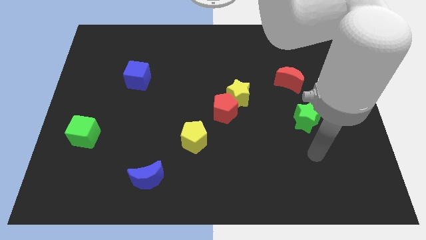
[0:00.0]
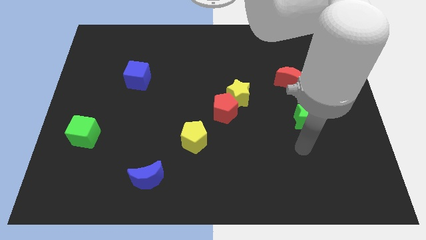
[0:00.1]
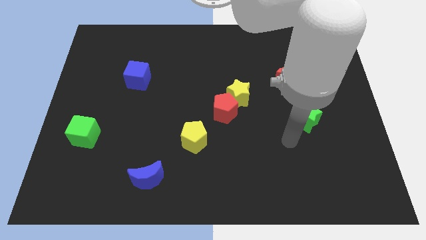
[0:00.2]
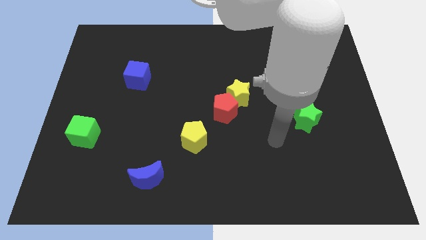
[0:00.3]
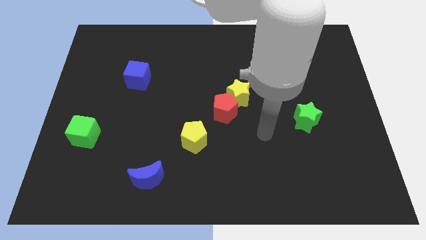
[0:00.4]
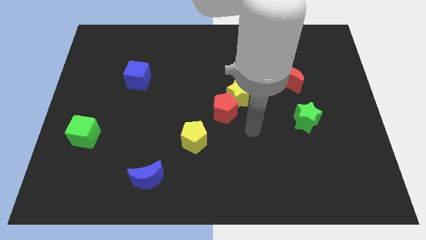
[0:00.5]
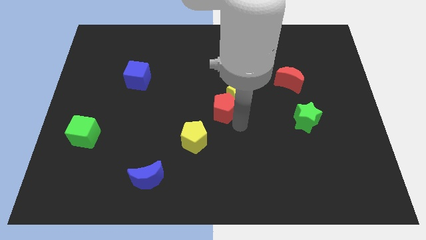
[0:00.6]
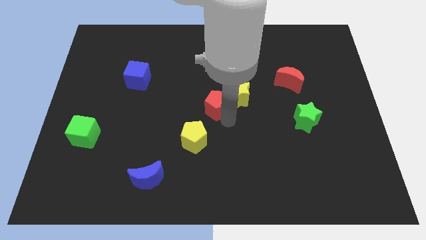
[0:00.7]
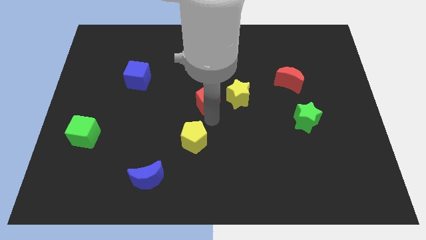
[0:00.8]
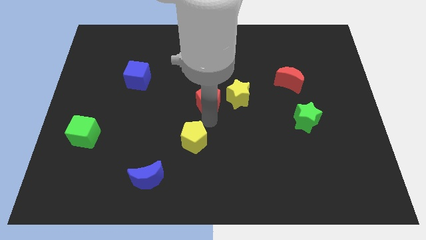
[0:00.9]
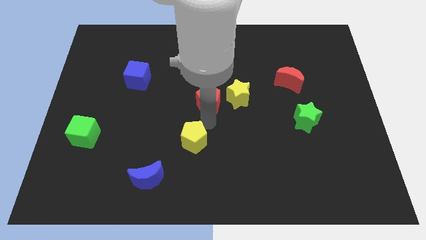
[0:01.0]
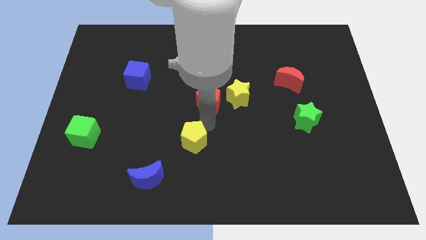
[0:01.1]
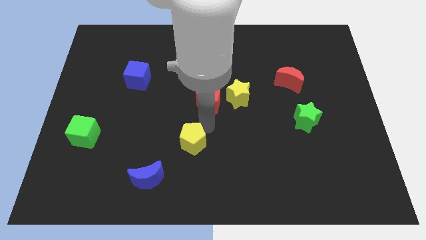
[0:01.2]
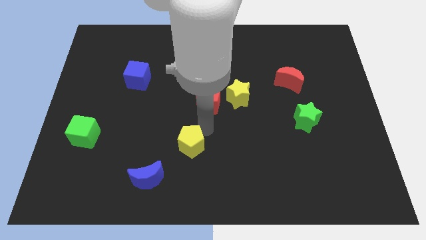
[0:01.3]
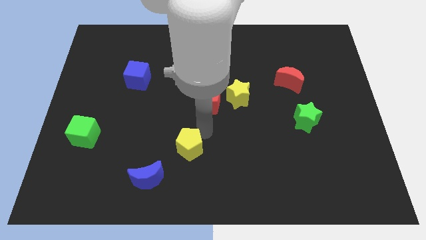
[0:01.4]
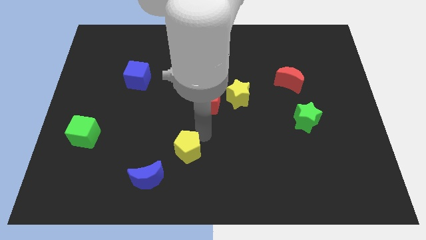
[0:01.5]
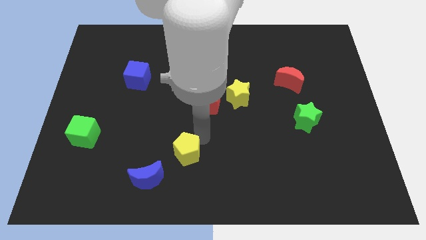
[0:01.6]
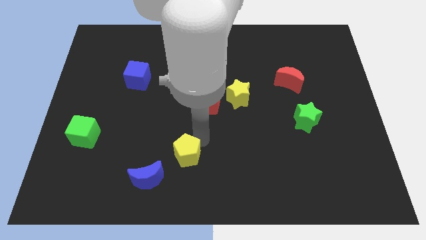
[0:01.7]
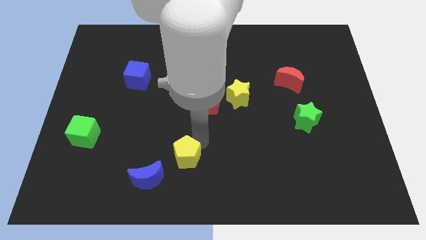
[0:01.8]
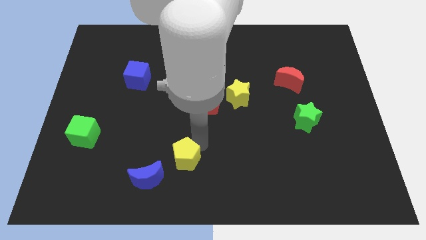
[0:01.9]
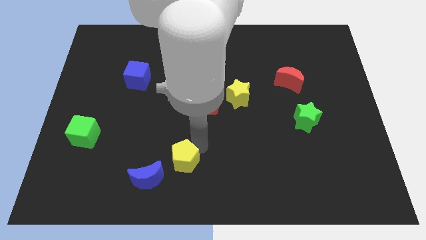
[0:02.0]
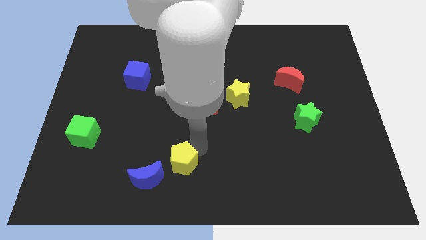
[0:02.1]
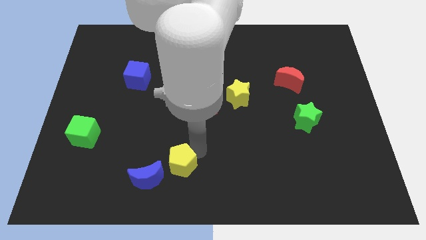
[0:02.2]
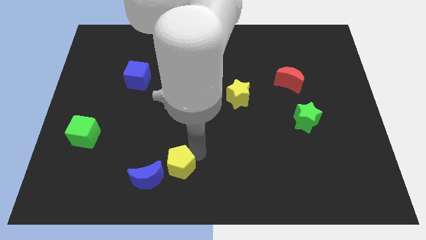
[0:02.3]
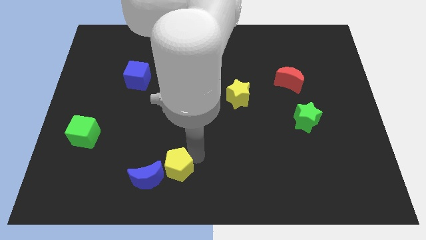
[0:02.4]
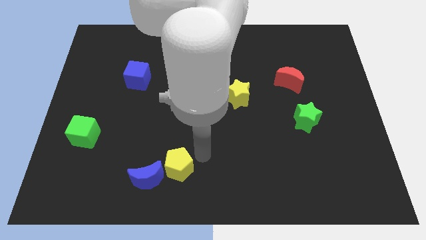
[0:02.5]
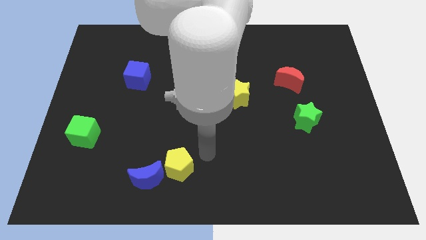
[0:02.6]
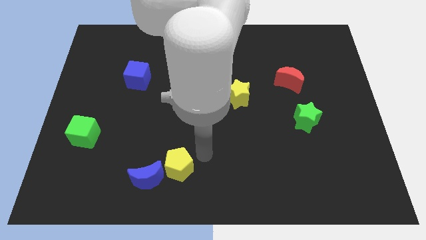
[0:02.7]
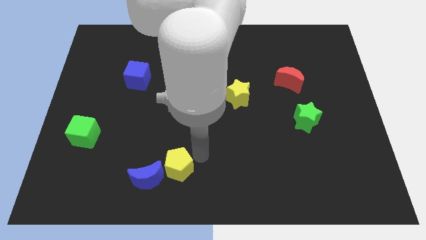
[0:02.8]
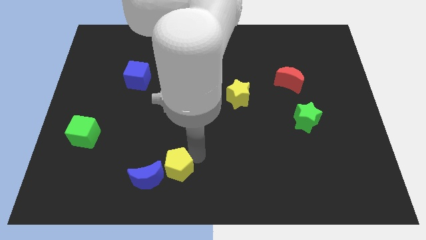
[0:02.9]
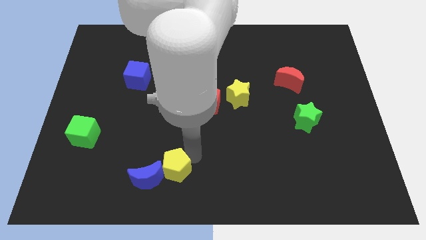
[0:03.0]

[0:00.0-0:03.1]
move the yellow pentagon to the blue moon

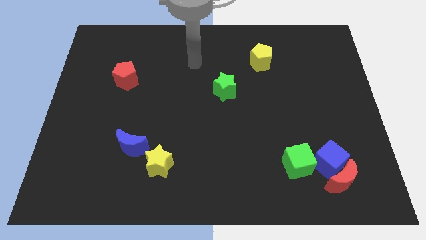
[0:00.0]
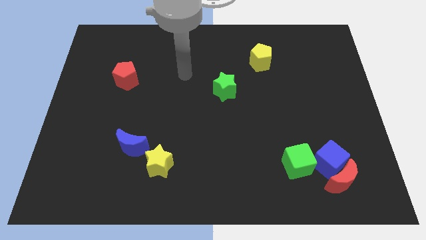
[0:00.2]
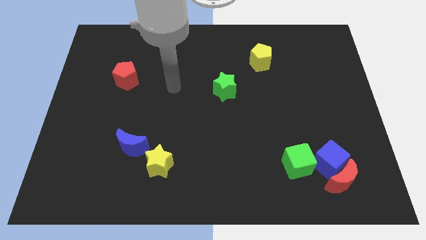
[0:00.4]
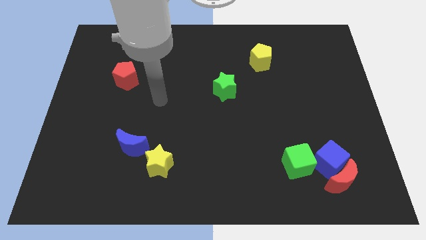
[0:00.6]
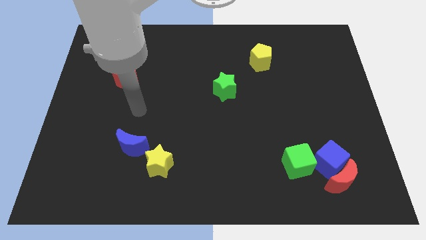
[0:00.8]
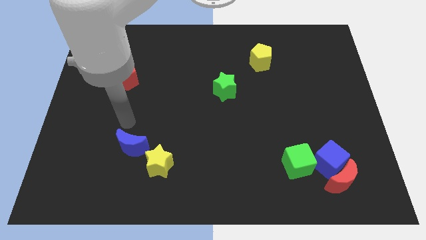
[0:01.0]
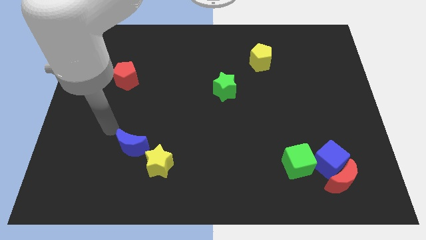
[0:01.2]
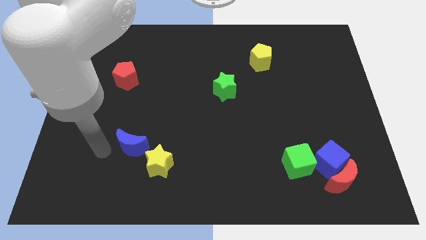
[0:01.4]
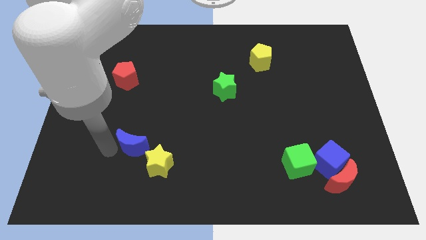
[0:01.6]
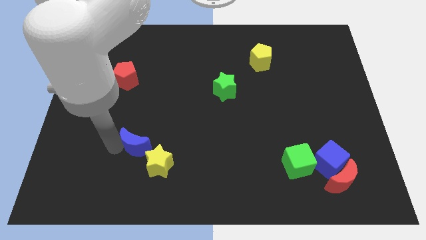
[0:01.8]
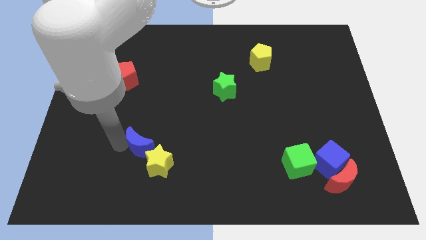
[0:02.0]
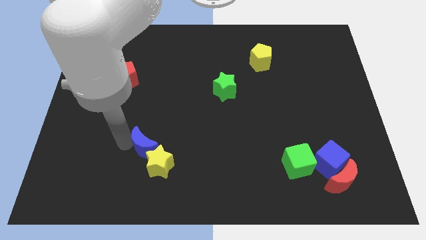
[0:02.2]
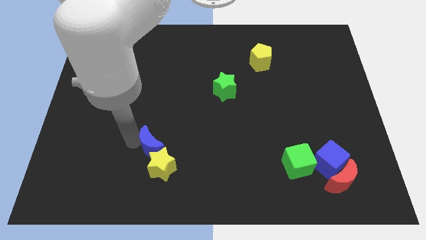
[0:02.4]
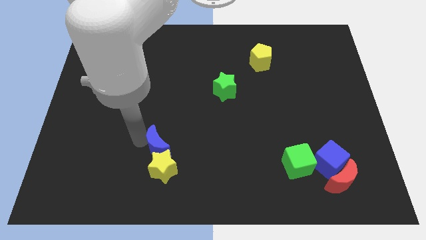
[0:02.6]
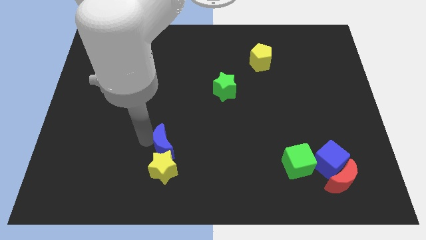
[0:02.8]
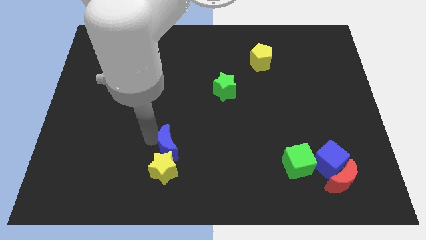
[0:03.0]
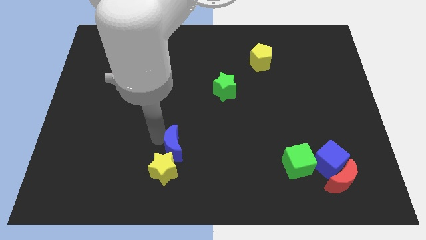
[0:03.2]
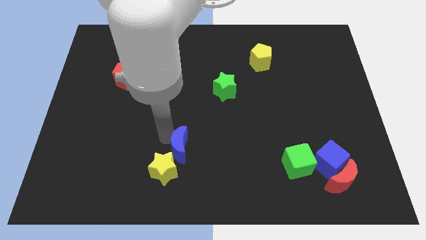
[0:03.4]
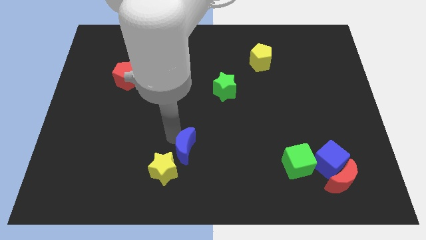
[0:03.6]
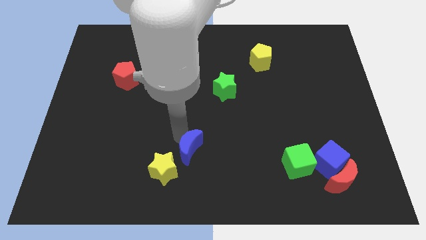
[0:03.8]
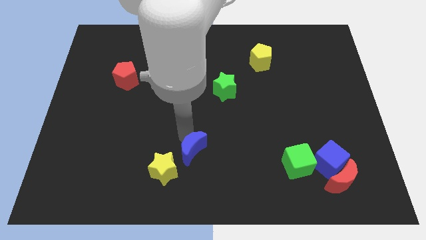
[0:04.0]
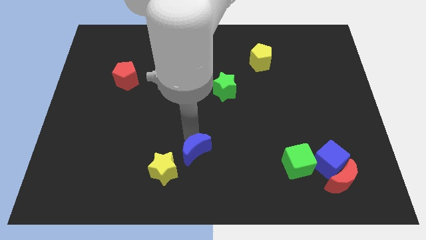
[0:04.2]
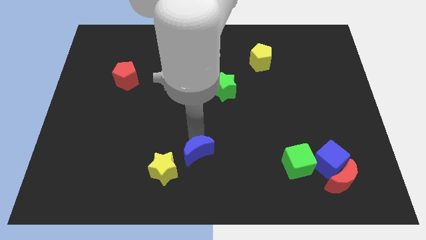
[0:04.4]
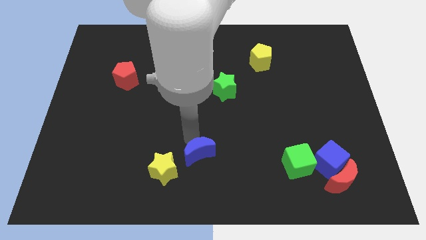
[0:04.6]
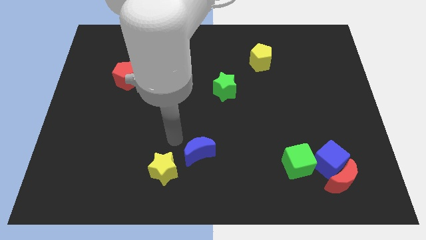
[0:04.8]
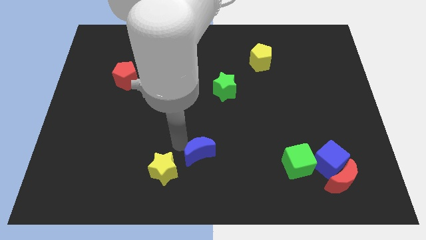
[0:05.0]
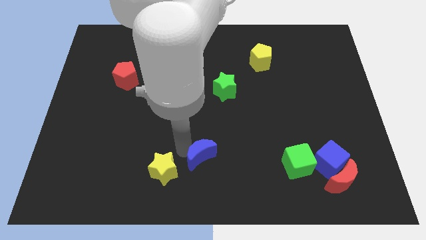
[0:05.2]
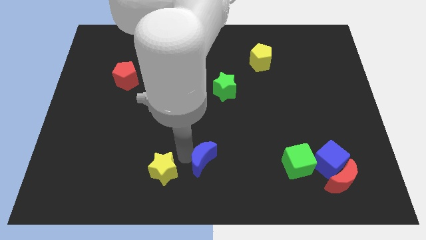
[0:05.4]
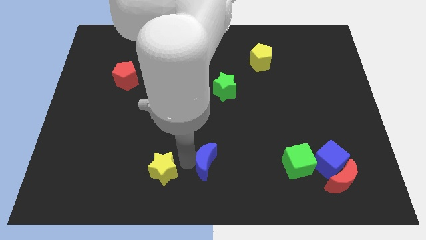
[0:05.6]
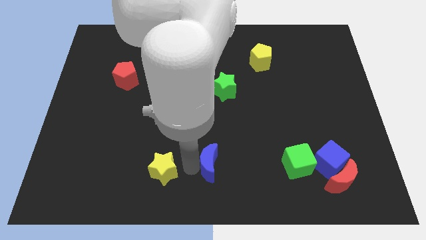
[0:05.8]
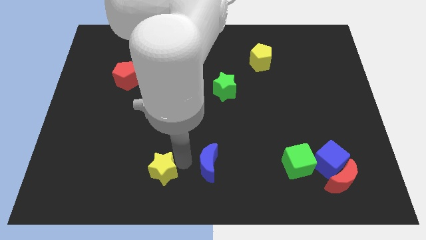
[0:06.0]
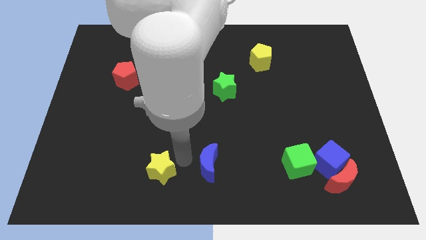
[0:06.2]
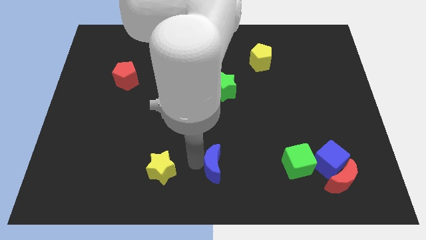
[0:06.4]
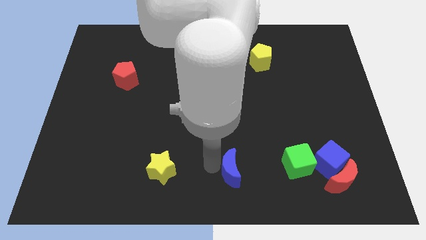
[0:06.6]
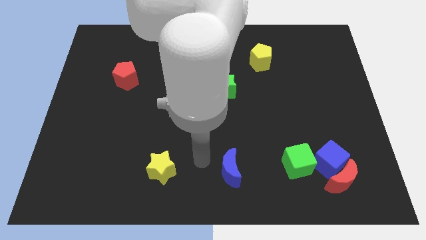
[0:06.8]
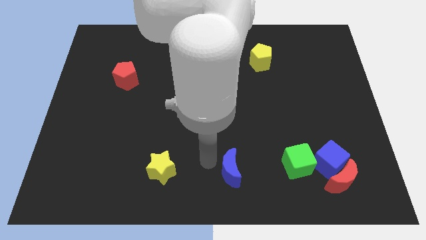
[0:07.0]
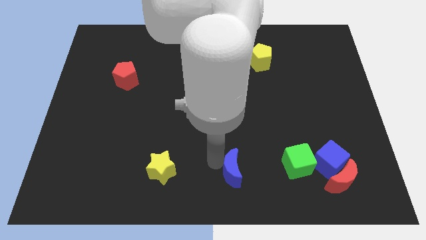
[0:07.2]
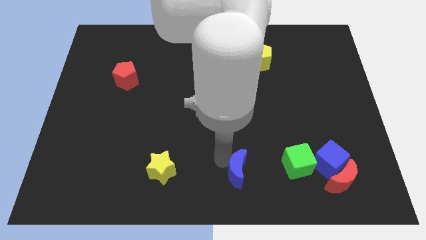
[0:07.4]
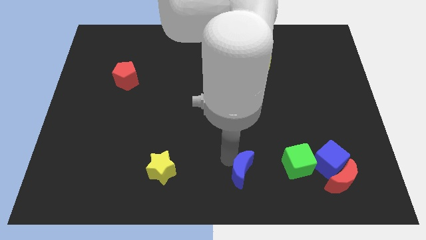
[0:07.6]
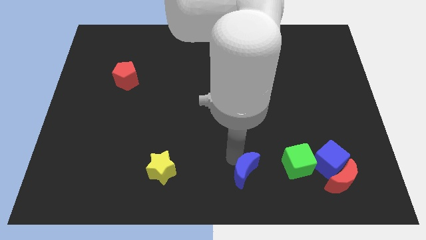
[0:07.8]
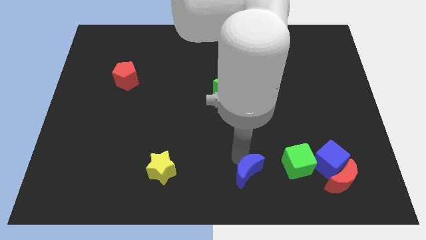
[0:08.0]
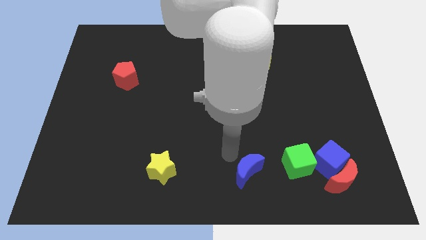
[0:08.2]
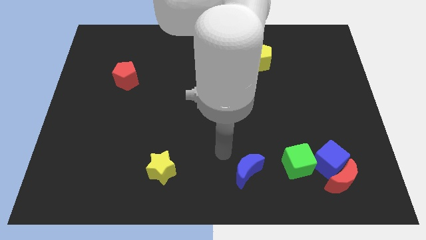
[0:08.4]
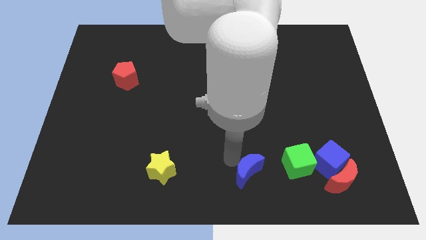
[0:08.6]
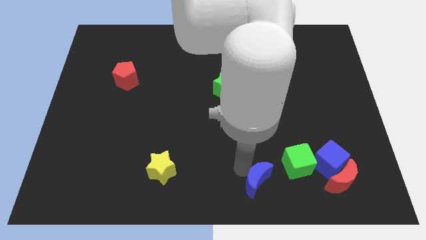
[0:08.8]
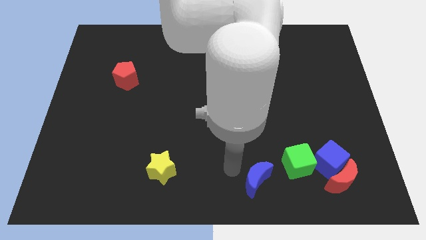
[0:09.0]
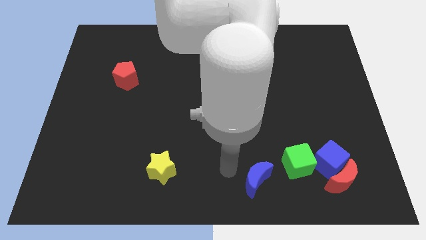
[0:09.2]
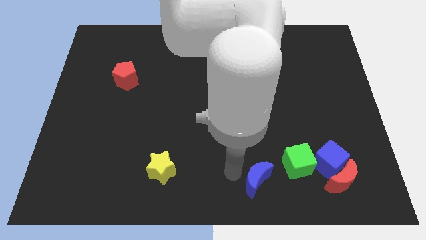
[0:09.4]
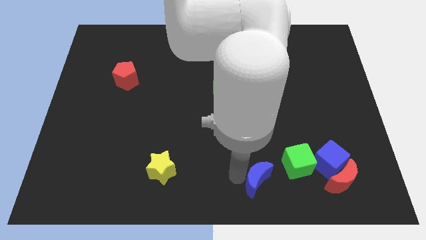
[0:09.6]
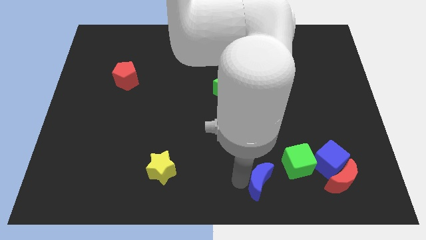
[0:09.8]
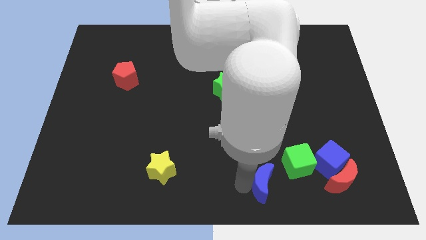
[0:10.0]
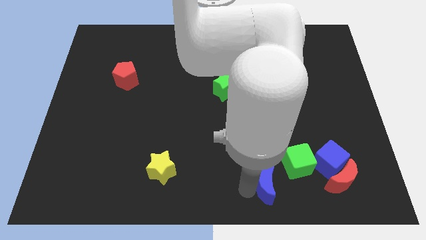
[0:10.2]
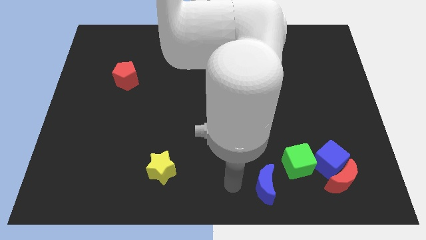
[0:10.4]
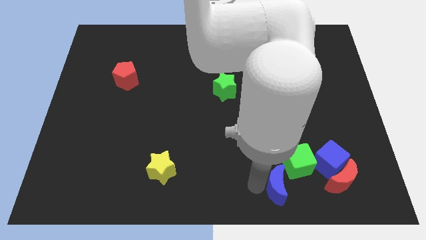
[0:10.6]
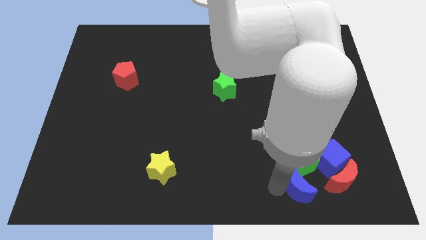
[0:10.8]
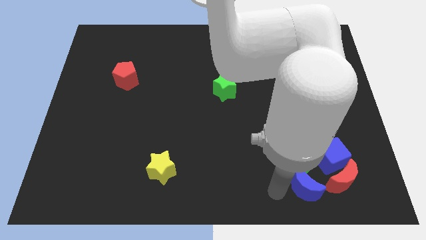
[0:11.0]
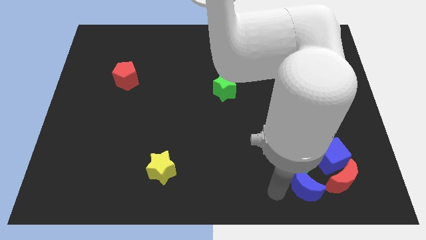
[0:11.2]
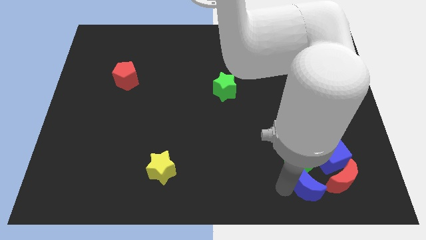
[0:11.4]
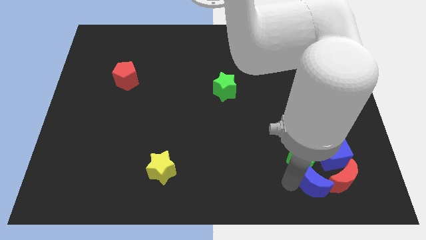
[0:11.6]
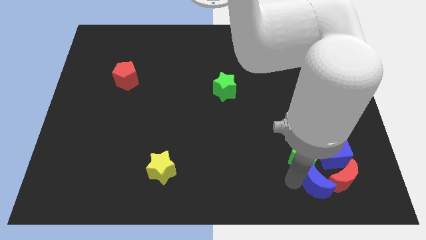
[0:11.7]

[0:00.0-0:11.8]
put the blue moon next to the red moon
